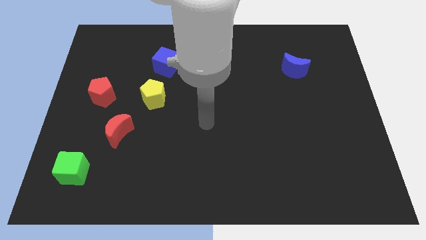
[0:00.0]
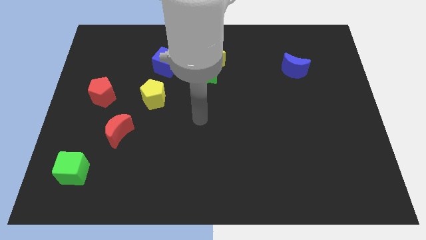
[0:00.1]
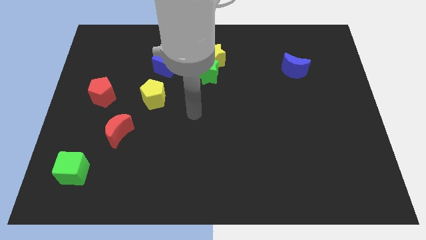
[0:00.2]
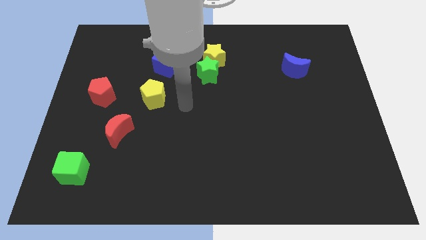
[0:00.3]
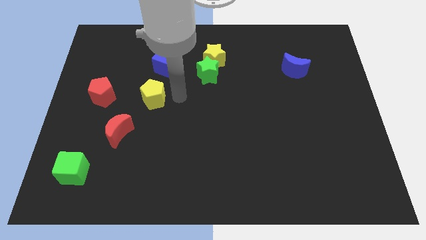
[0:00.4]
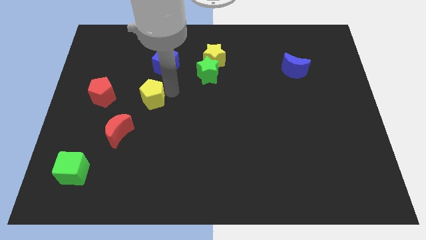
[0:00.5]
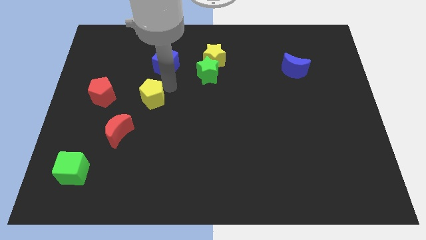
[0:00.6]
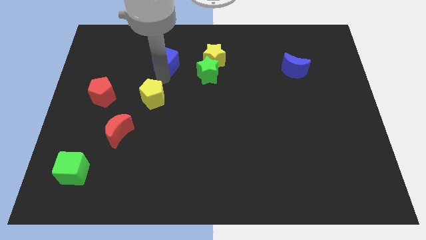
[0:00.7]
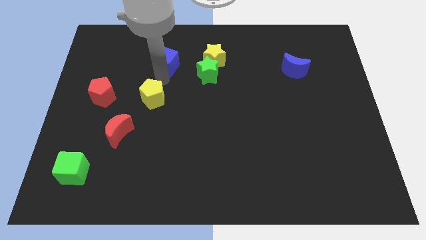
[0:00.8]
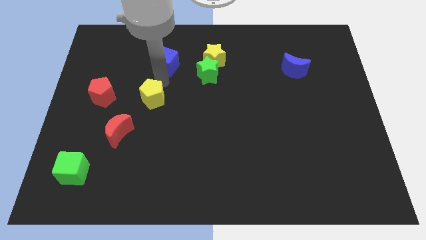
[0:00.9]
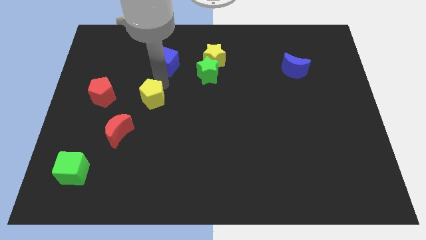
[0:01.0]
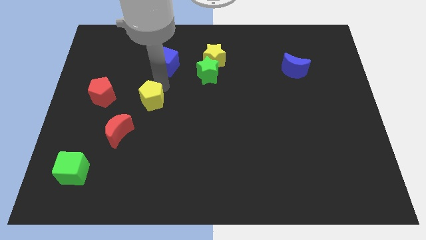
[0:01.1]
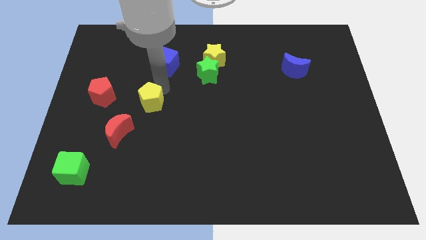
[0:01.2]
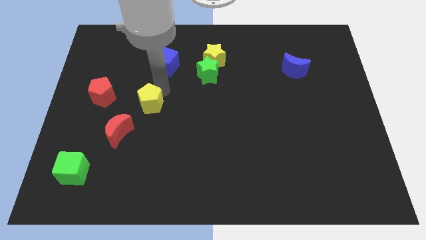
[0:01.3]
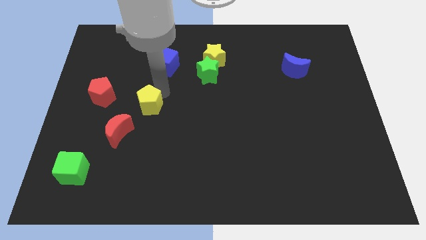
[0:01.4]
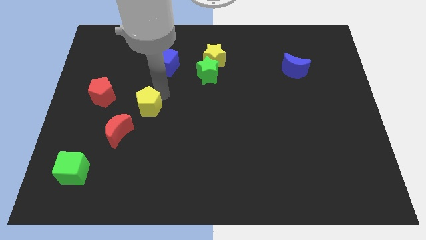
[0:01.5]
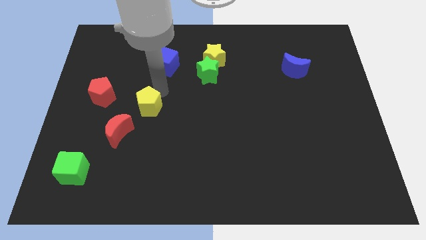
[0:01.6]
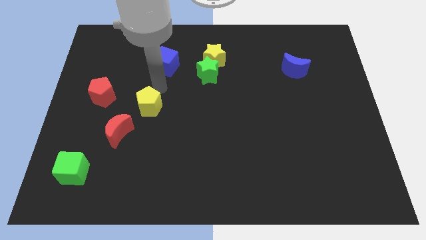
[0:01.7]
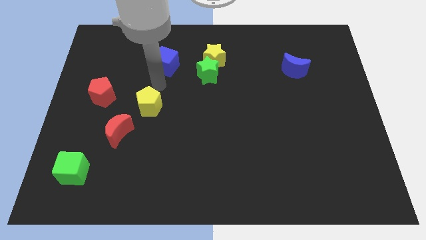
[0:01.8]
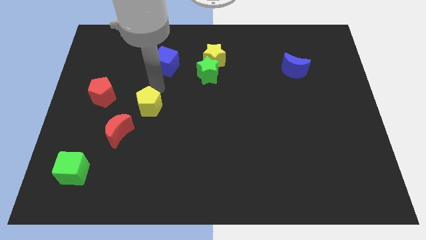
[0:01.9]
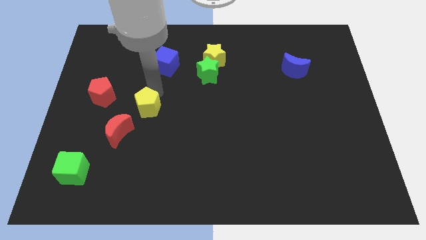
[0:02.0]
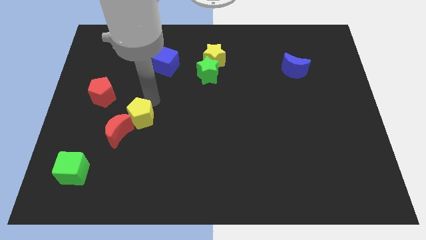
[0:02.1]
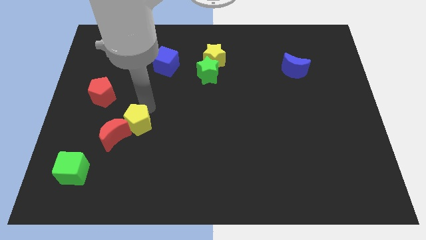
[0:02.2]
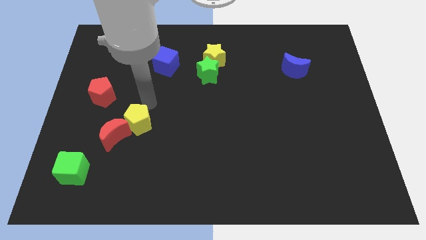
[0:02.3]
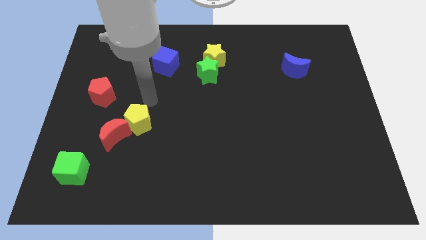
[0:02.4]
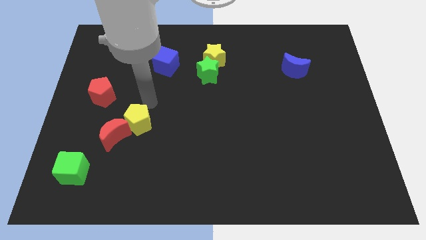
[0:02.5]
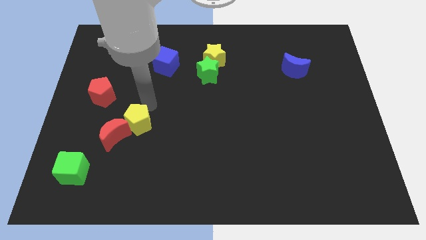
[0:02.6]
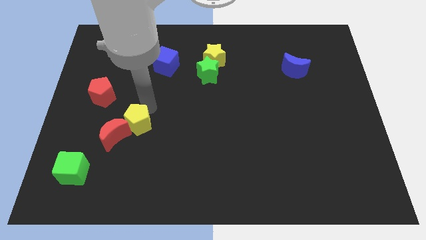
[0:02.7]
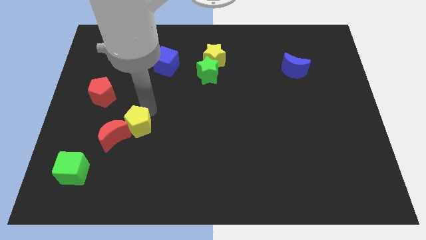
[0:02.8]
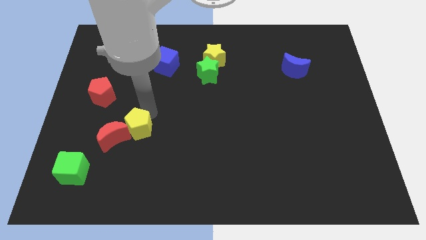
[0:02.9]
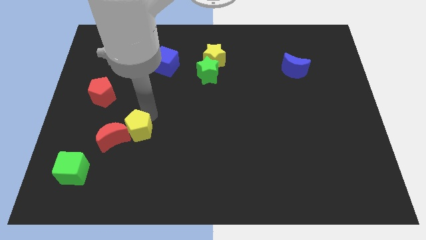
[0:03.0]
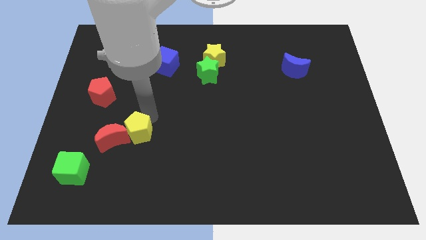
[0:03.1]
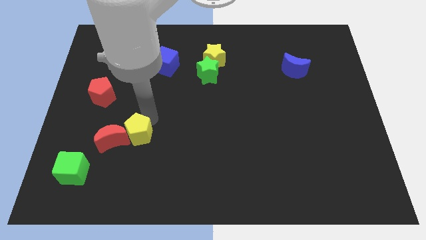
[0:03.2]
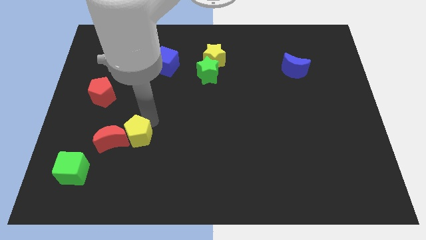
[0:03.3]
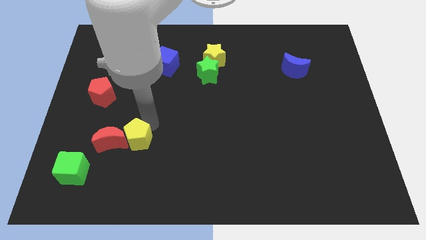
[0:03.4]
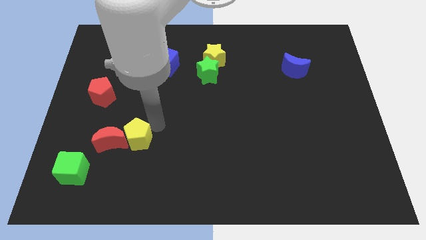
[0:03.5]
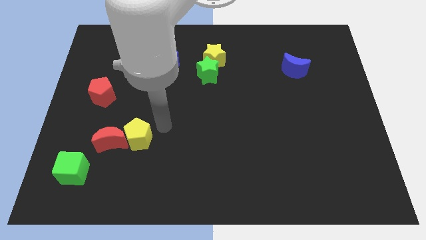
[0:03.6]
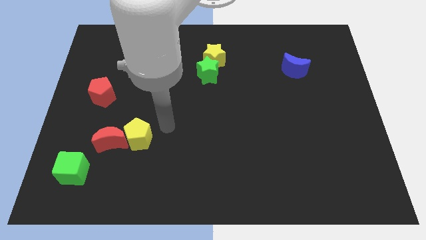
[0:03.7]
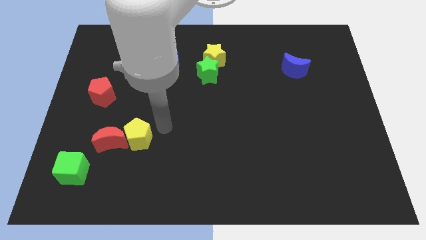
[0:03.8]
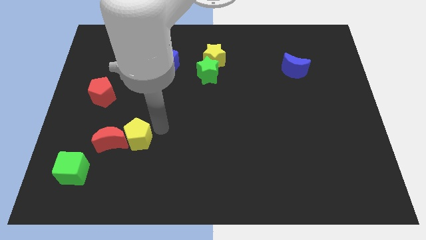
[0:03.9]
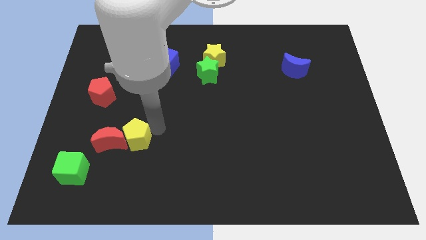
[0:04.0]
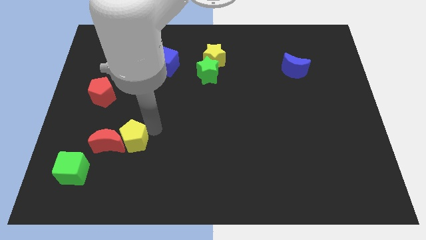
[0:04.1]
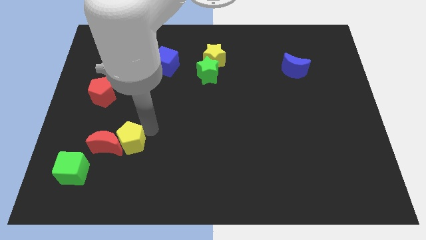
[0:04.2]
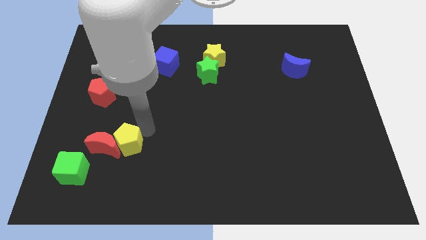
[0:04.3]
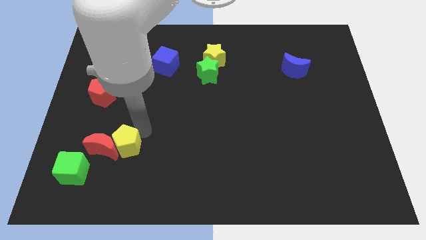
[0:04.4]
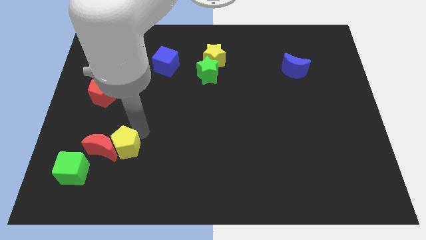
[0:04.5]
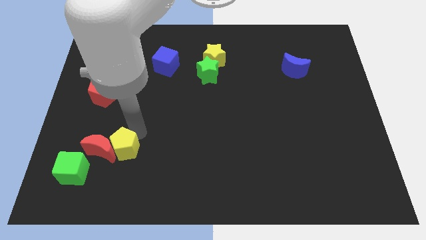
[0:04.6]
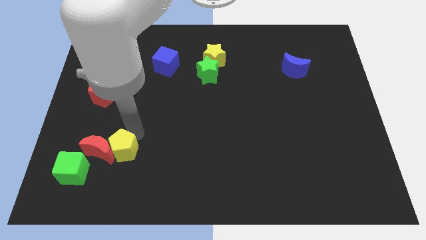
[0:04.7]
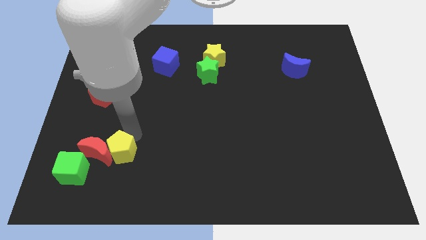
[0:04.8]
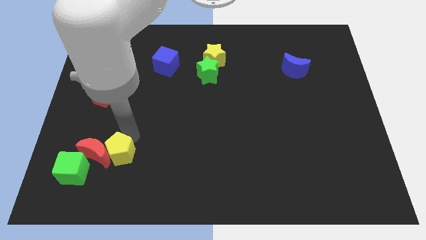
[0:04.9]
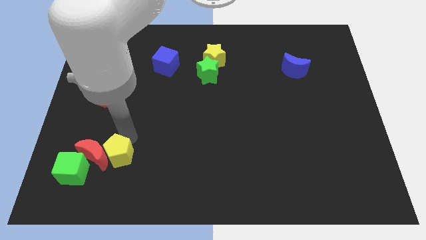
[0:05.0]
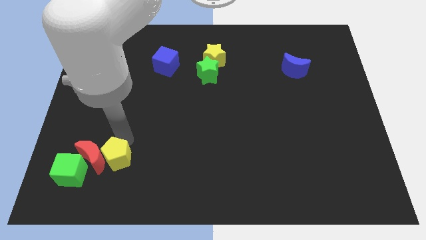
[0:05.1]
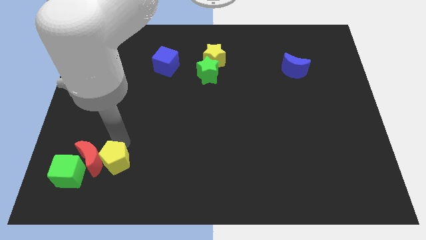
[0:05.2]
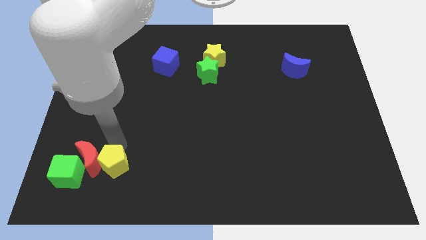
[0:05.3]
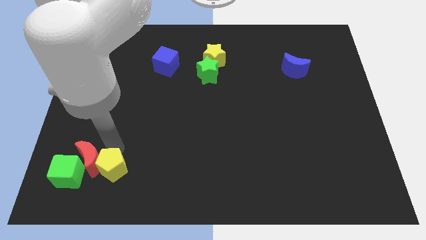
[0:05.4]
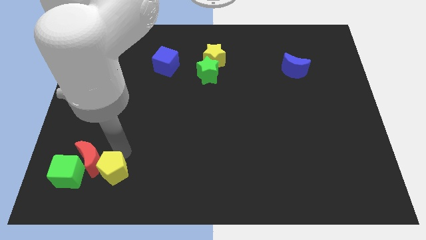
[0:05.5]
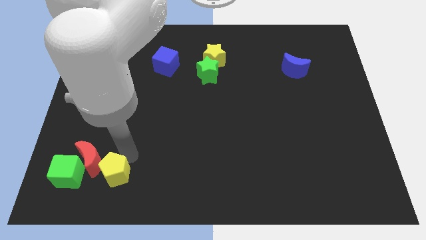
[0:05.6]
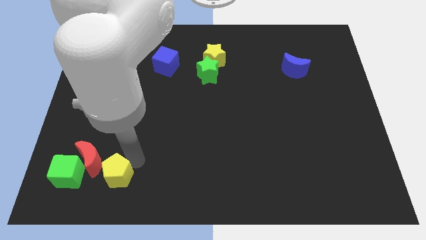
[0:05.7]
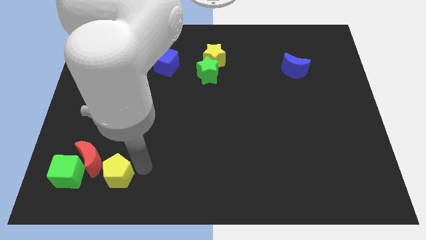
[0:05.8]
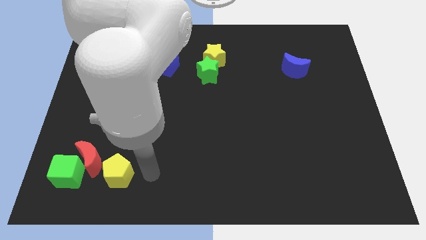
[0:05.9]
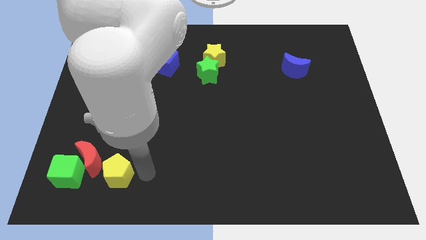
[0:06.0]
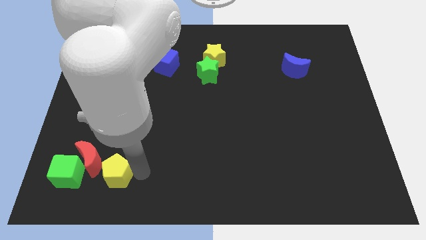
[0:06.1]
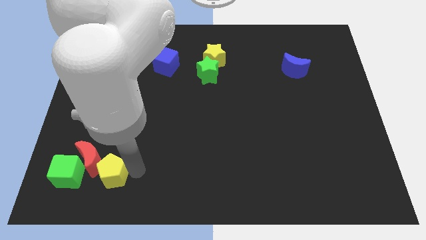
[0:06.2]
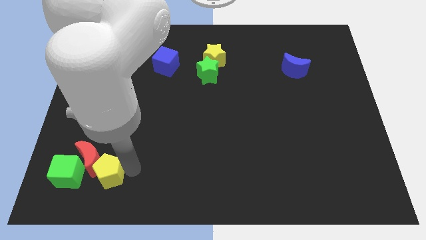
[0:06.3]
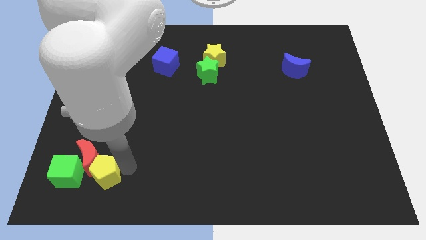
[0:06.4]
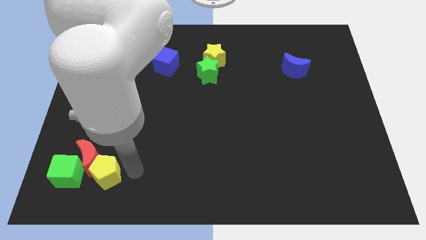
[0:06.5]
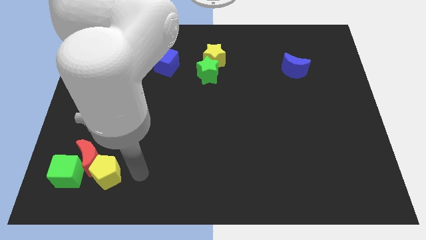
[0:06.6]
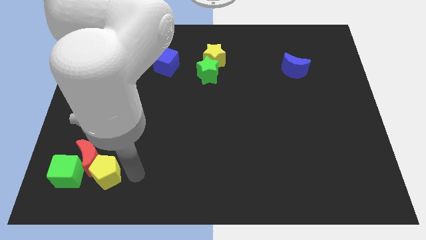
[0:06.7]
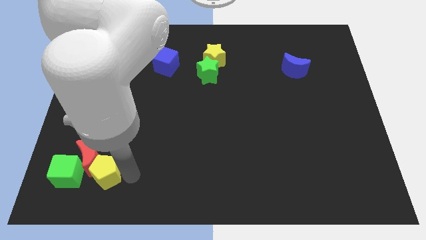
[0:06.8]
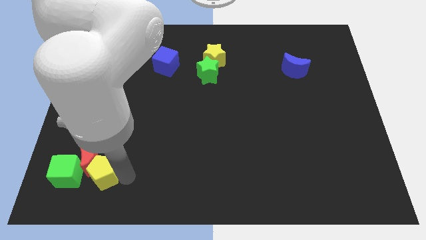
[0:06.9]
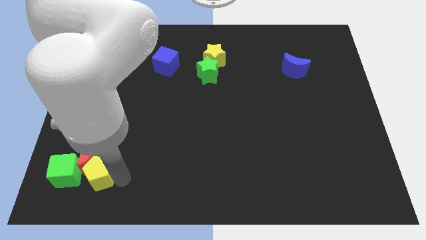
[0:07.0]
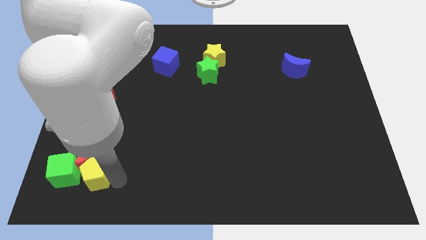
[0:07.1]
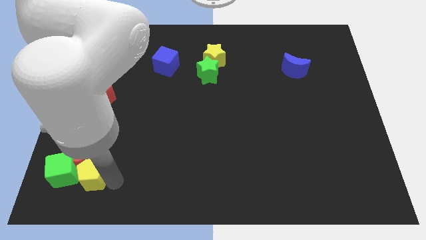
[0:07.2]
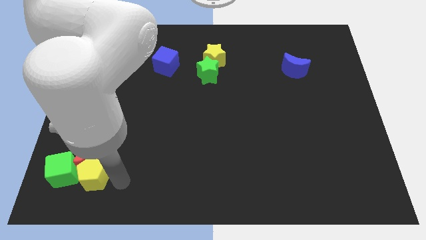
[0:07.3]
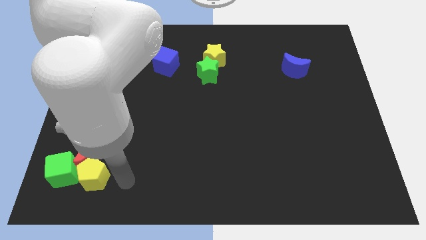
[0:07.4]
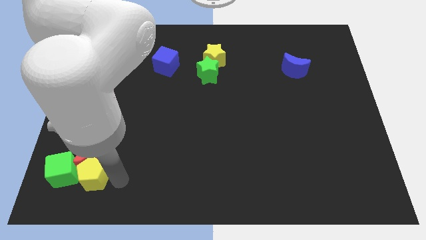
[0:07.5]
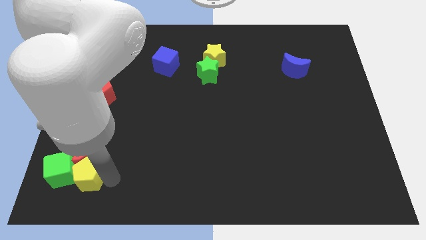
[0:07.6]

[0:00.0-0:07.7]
slide the yellow pentagon close to the green cube
